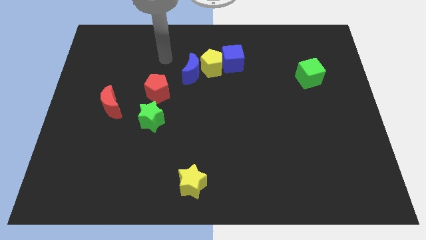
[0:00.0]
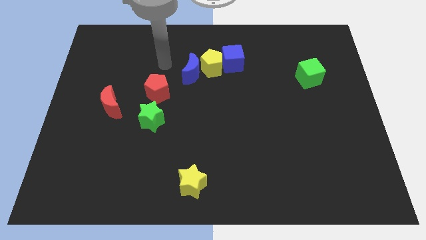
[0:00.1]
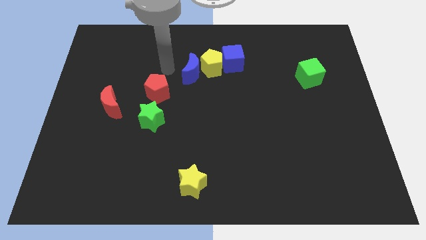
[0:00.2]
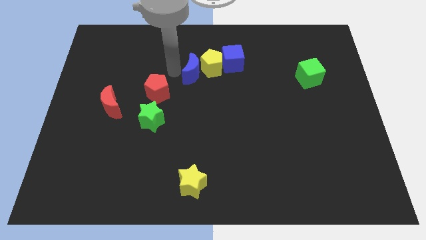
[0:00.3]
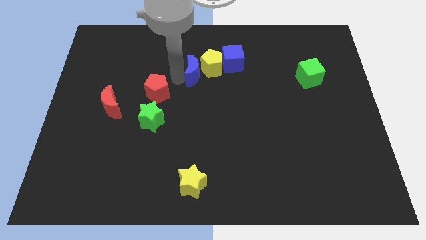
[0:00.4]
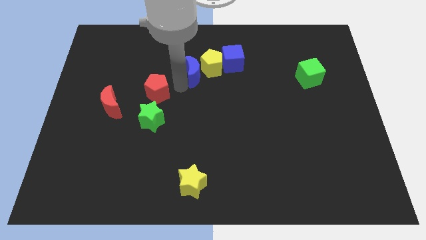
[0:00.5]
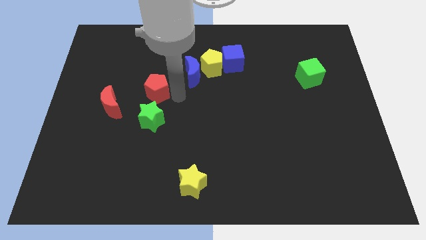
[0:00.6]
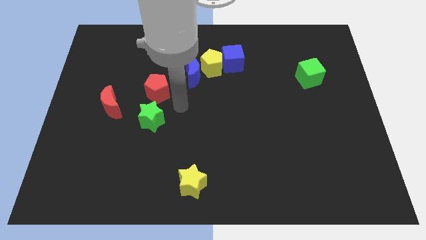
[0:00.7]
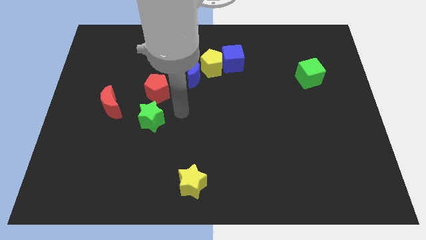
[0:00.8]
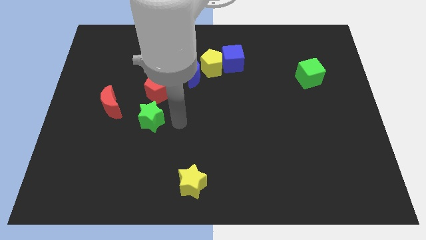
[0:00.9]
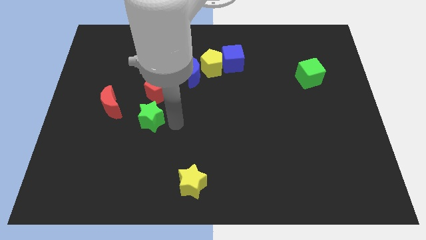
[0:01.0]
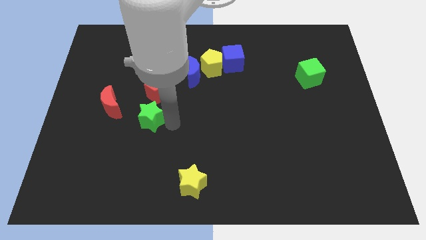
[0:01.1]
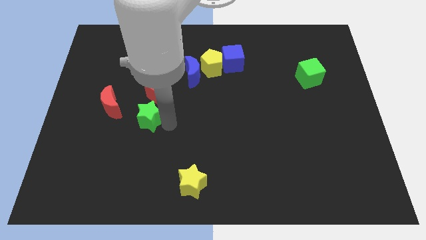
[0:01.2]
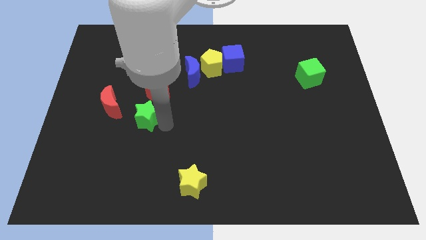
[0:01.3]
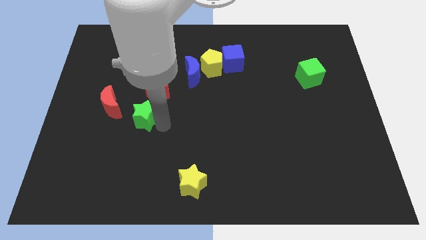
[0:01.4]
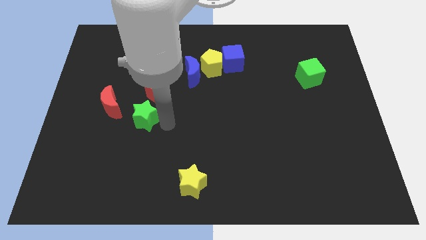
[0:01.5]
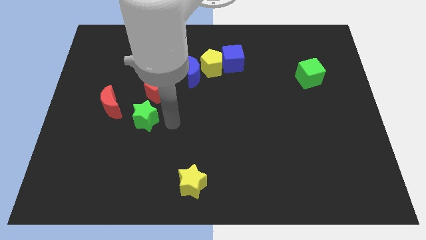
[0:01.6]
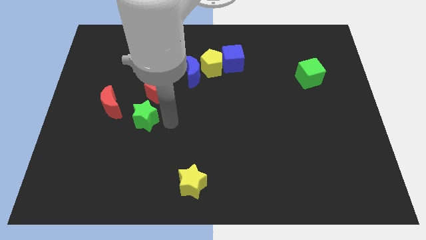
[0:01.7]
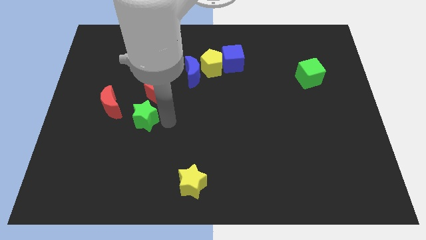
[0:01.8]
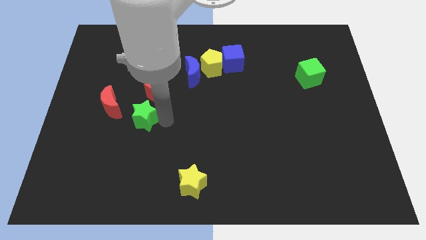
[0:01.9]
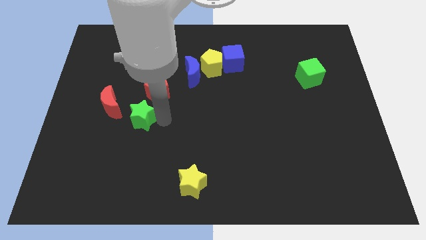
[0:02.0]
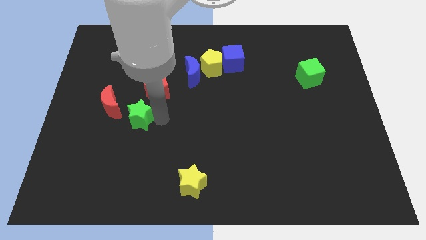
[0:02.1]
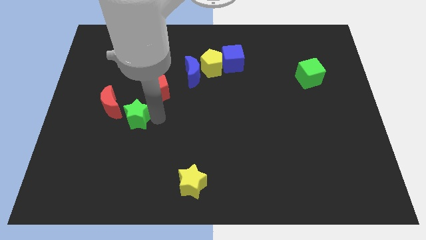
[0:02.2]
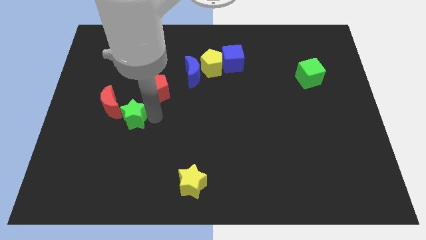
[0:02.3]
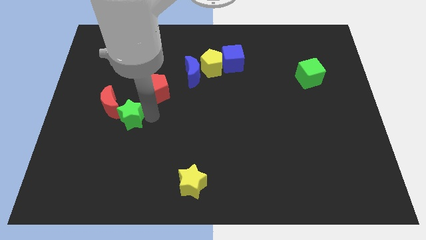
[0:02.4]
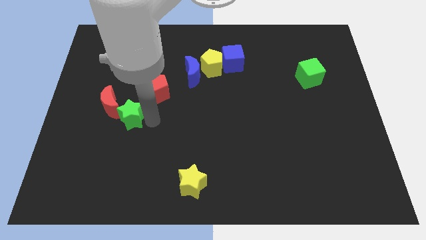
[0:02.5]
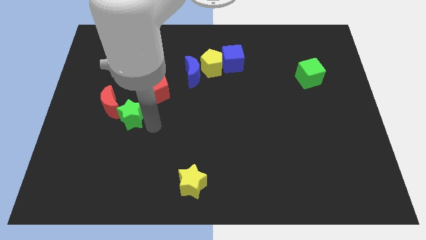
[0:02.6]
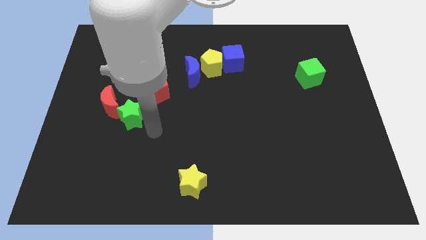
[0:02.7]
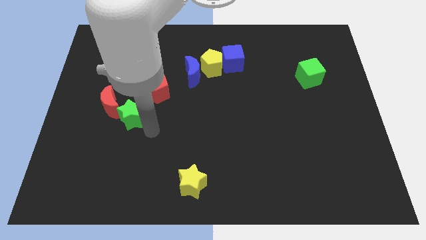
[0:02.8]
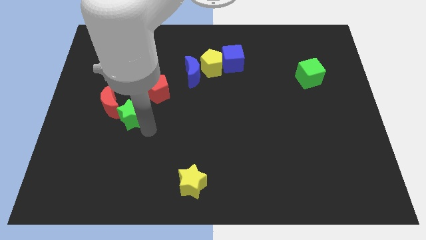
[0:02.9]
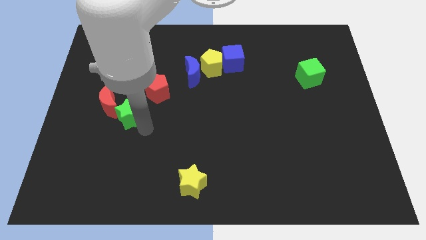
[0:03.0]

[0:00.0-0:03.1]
slide the green star to the red moon

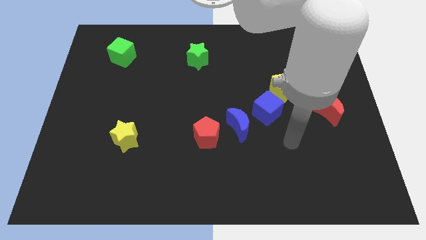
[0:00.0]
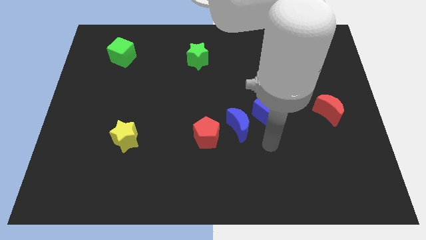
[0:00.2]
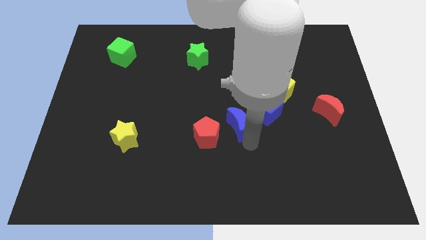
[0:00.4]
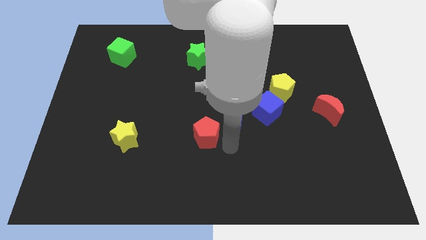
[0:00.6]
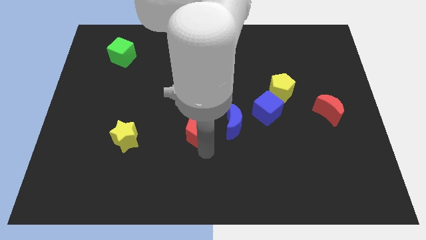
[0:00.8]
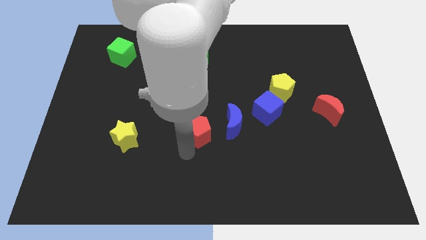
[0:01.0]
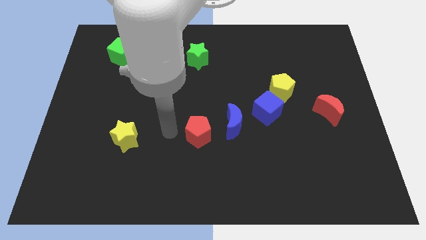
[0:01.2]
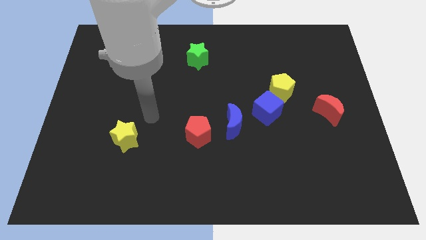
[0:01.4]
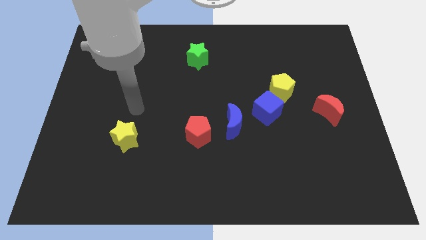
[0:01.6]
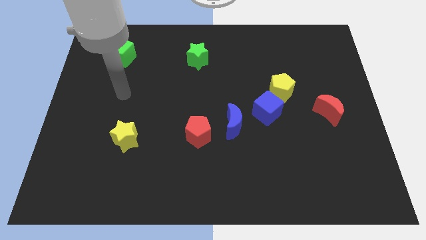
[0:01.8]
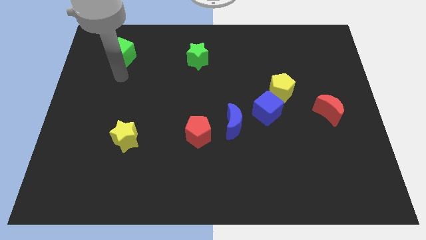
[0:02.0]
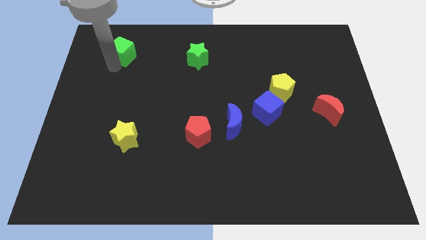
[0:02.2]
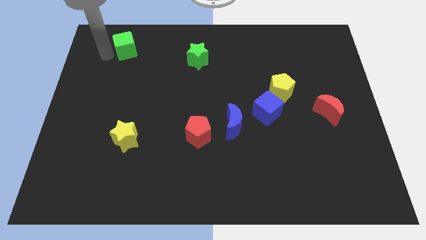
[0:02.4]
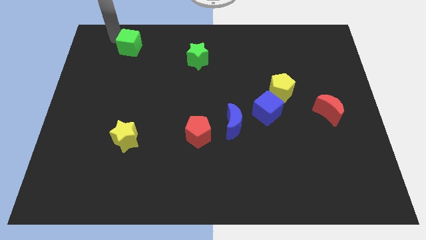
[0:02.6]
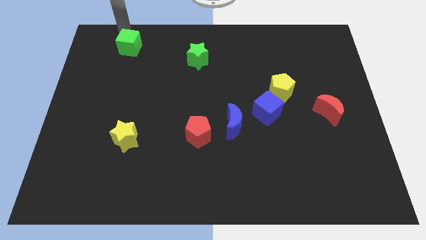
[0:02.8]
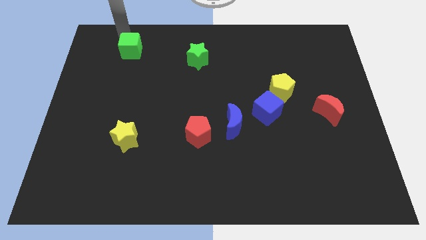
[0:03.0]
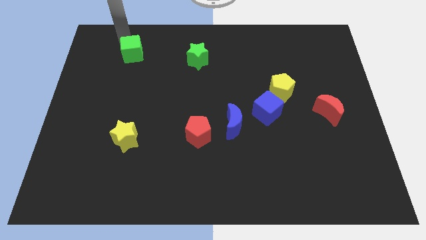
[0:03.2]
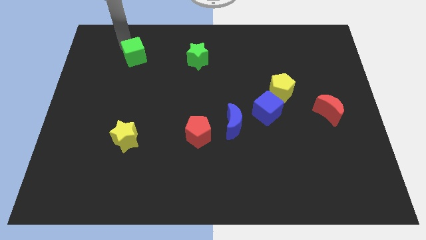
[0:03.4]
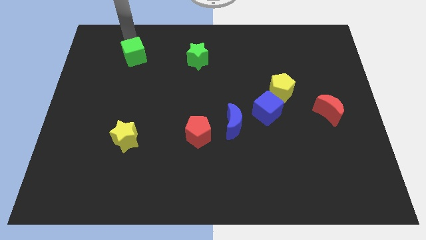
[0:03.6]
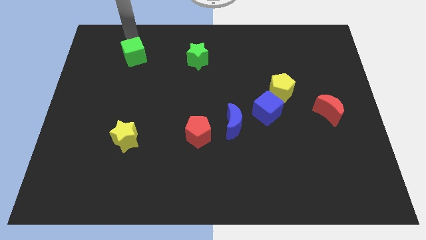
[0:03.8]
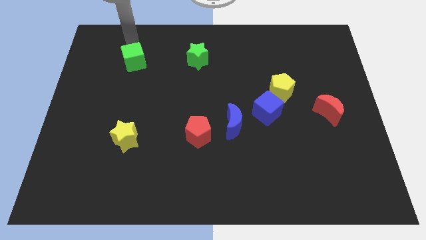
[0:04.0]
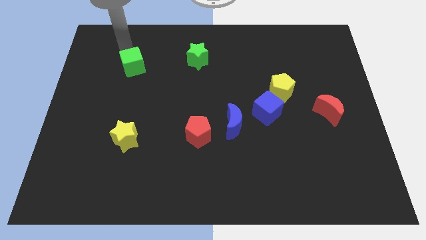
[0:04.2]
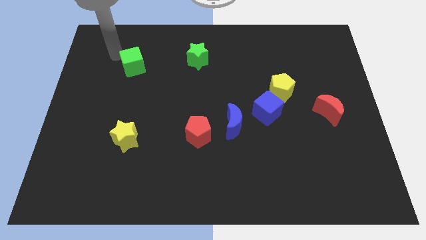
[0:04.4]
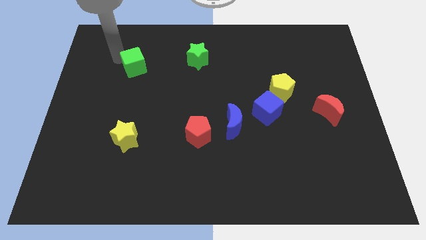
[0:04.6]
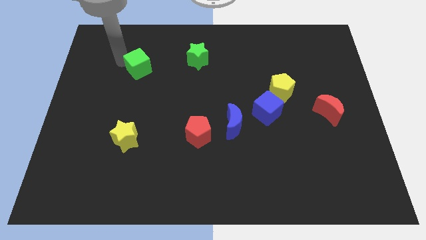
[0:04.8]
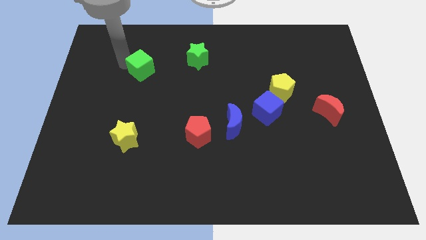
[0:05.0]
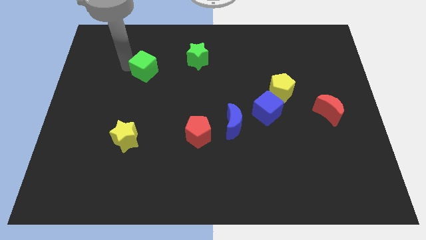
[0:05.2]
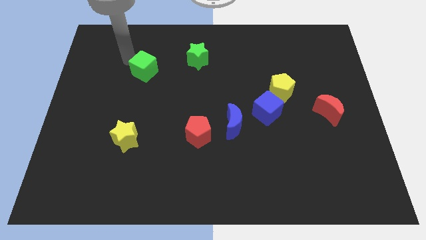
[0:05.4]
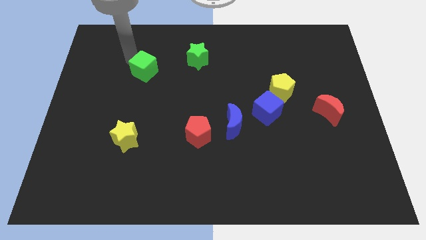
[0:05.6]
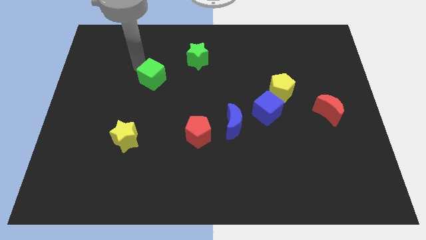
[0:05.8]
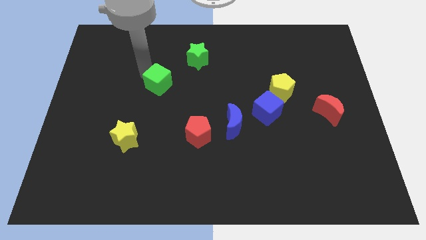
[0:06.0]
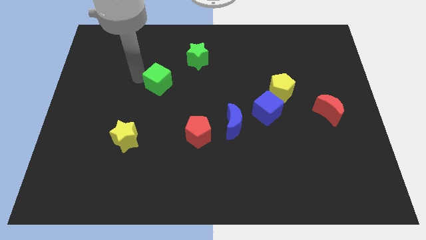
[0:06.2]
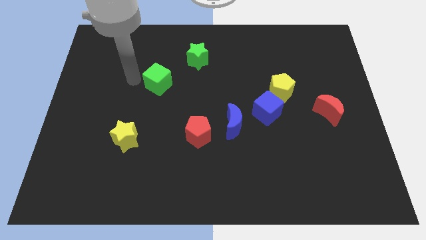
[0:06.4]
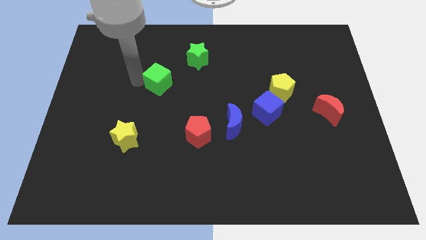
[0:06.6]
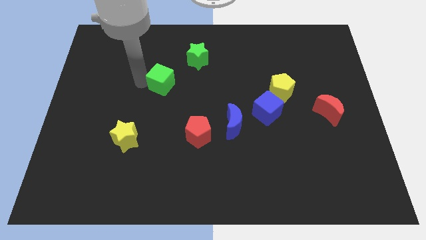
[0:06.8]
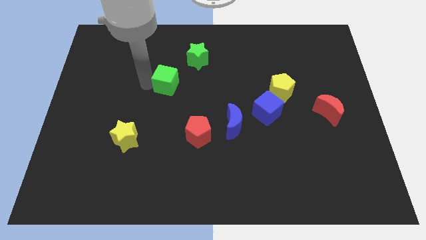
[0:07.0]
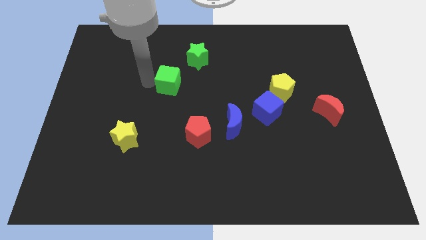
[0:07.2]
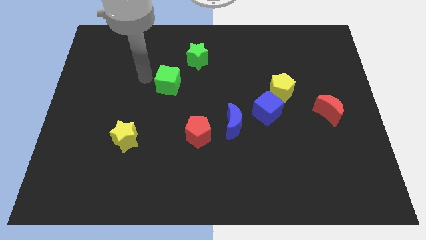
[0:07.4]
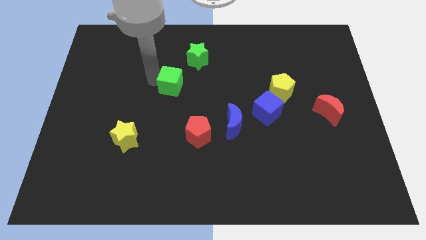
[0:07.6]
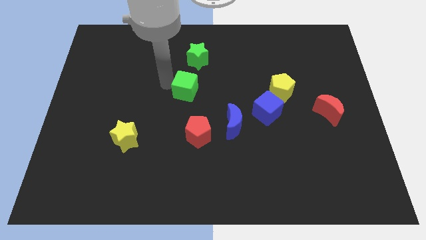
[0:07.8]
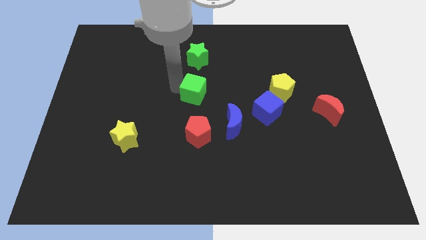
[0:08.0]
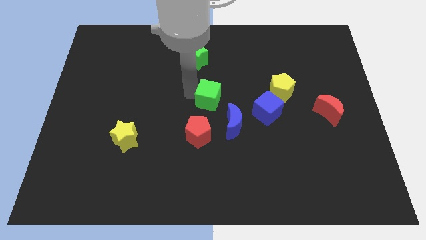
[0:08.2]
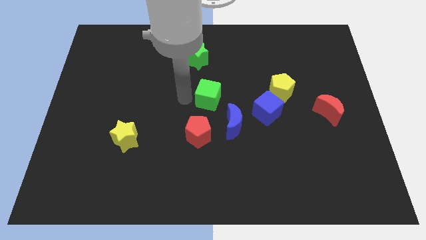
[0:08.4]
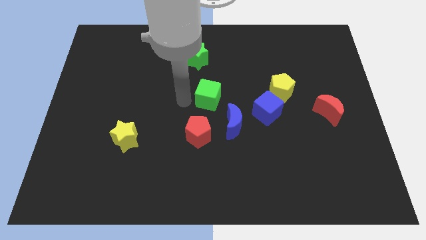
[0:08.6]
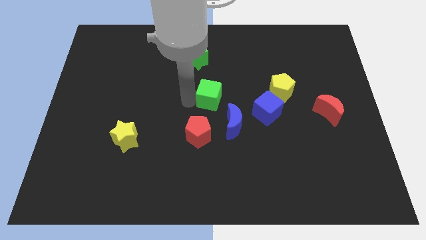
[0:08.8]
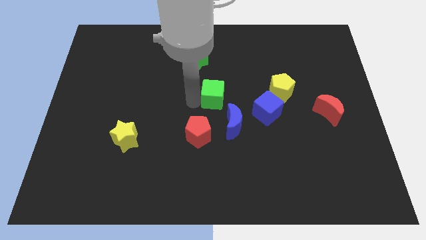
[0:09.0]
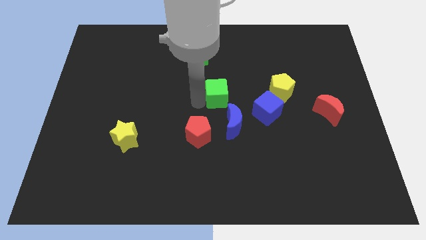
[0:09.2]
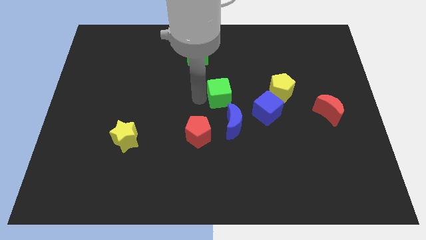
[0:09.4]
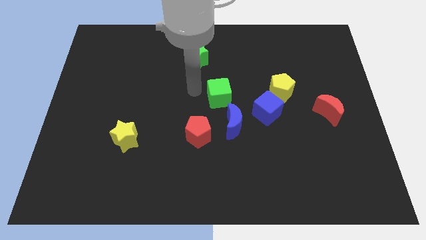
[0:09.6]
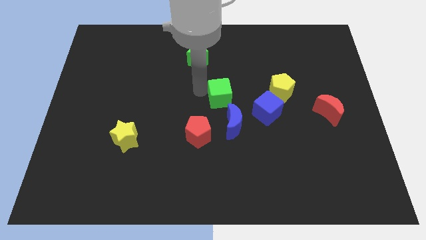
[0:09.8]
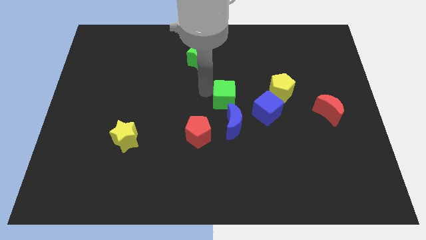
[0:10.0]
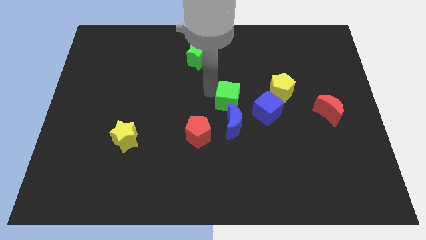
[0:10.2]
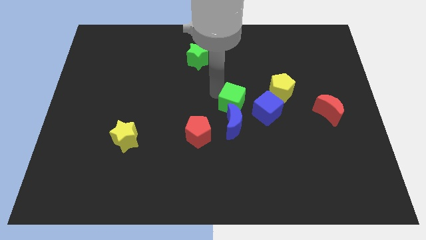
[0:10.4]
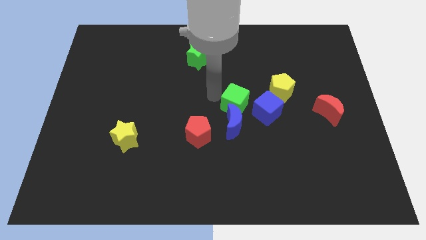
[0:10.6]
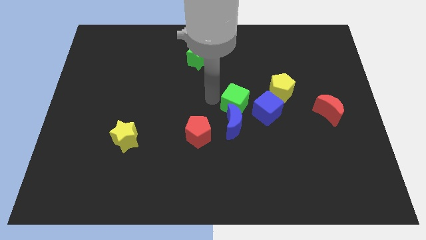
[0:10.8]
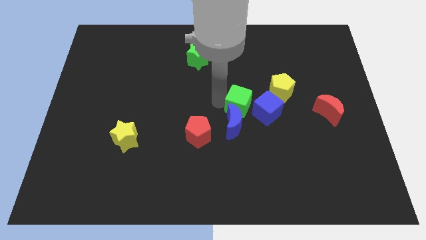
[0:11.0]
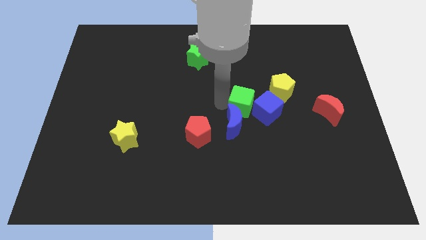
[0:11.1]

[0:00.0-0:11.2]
slide the green cube towards the blue cube
